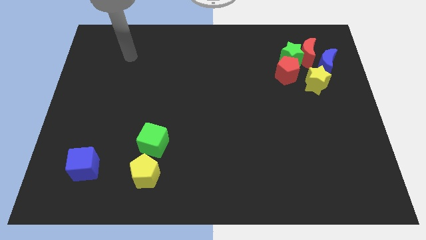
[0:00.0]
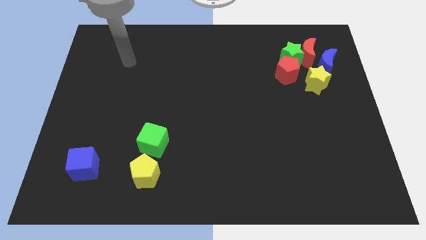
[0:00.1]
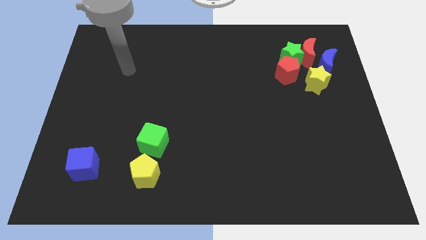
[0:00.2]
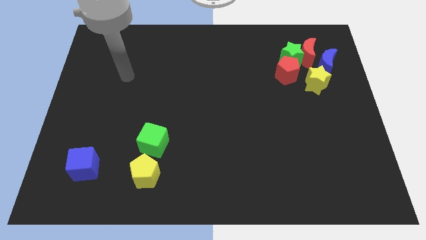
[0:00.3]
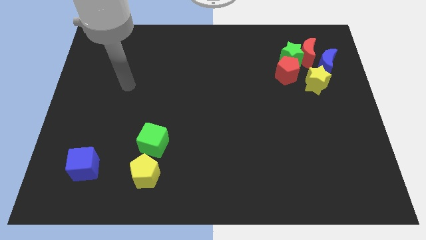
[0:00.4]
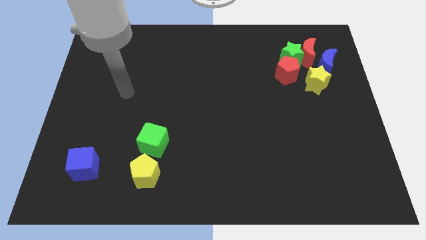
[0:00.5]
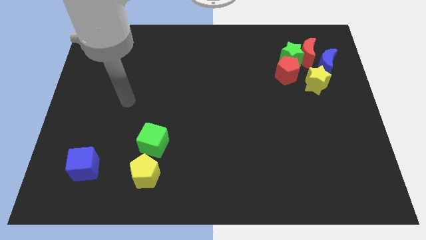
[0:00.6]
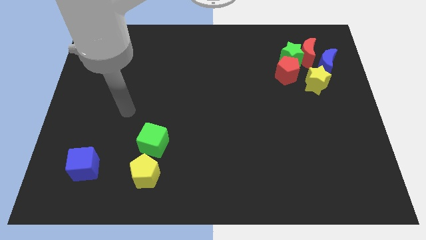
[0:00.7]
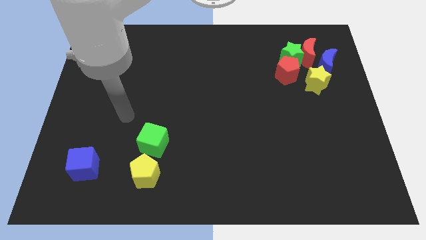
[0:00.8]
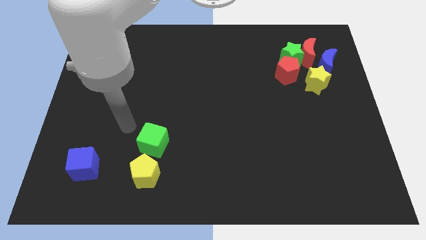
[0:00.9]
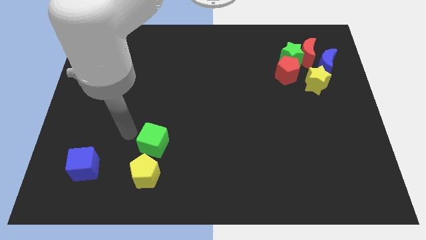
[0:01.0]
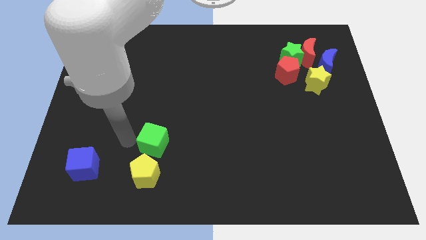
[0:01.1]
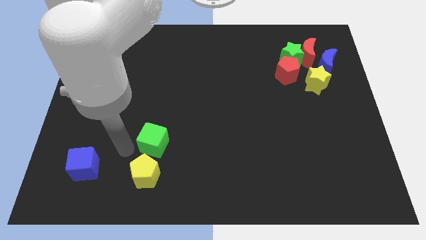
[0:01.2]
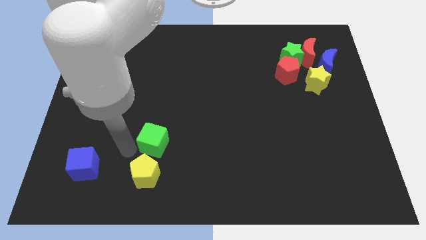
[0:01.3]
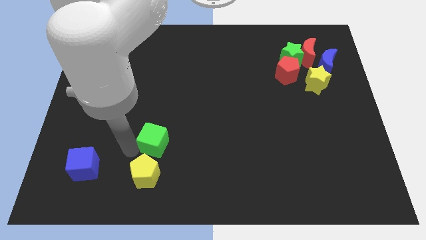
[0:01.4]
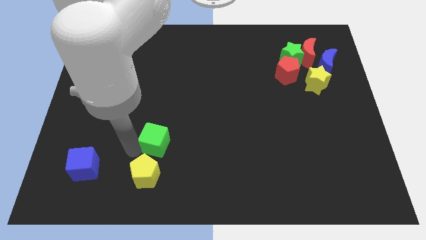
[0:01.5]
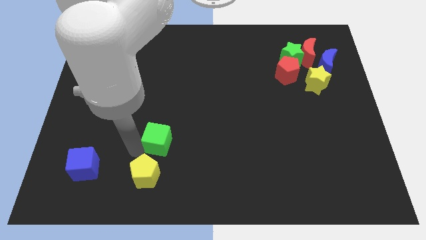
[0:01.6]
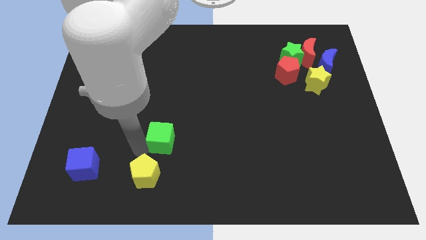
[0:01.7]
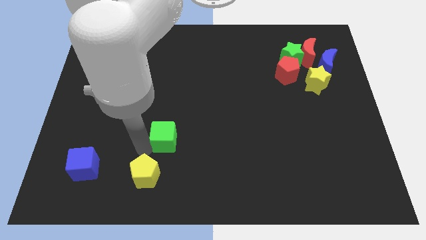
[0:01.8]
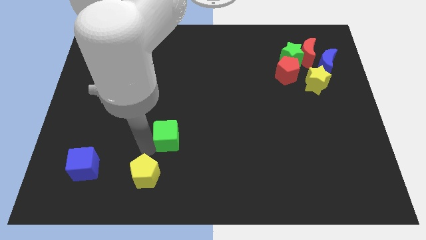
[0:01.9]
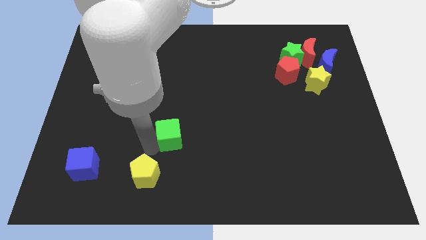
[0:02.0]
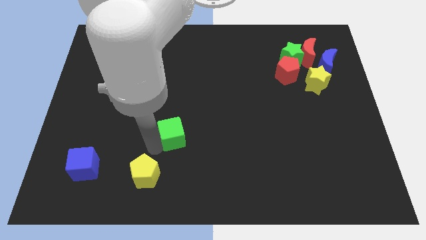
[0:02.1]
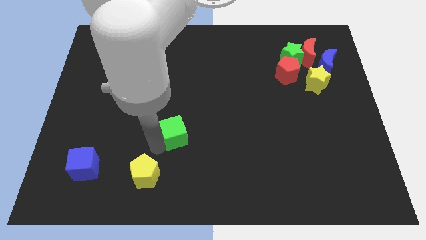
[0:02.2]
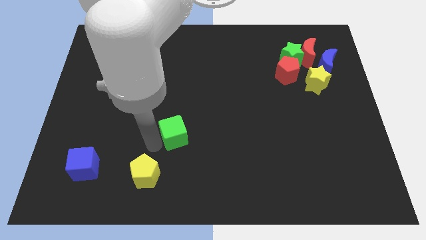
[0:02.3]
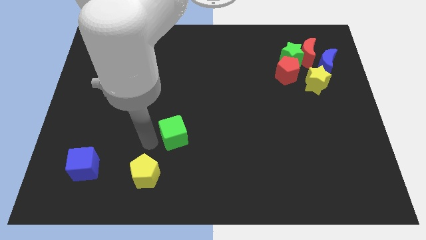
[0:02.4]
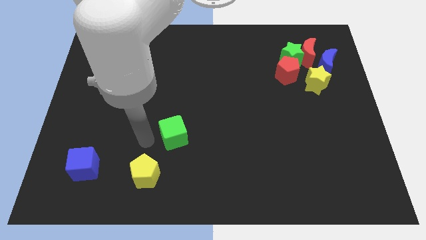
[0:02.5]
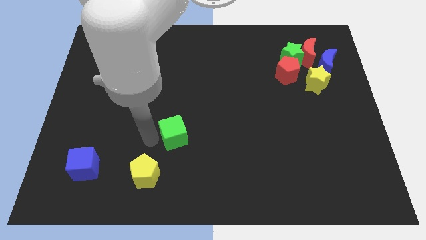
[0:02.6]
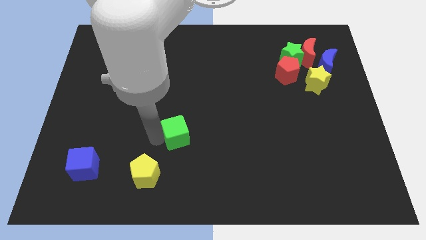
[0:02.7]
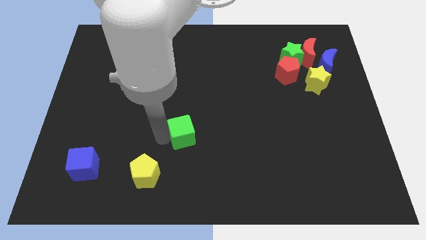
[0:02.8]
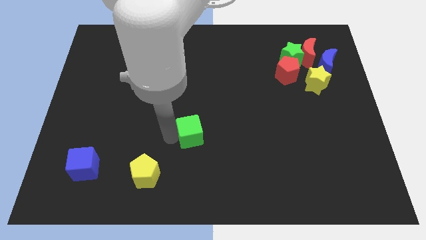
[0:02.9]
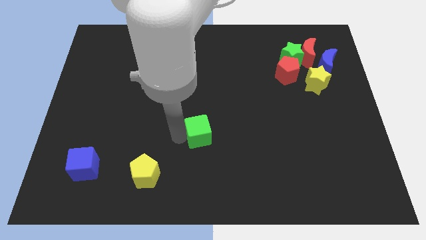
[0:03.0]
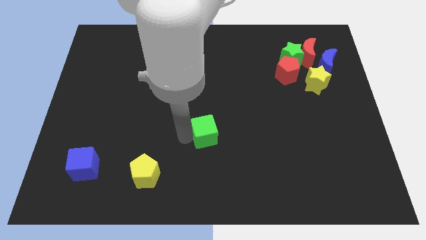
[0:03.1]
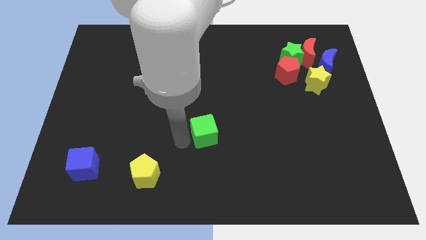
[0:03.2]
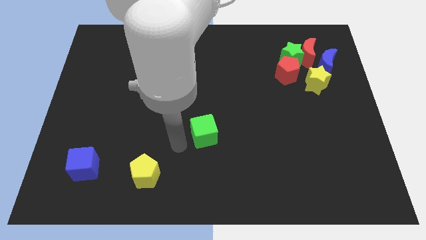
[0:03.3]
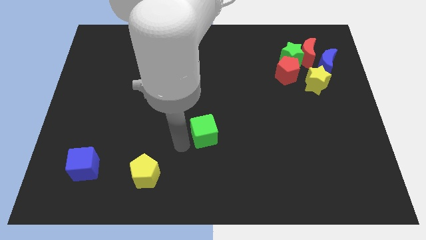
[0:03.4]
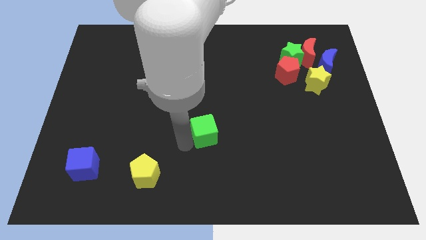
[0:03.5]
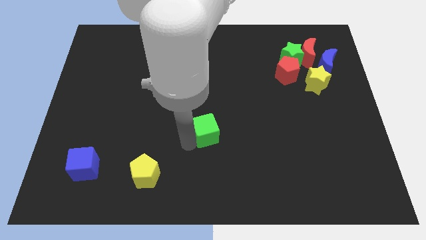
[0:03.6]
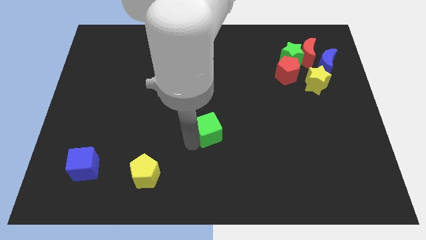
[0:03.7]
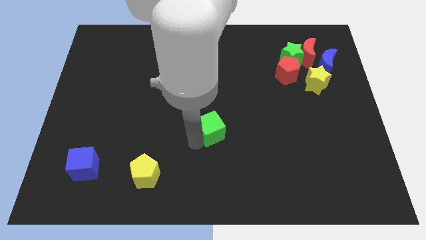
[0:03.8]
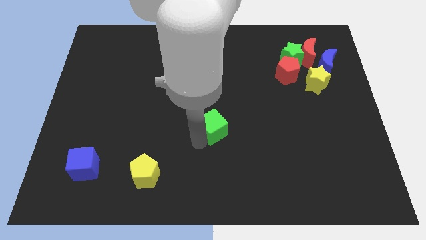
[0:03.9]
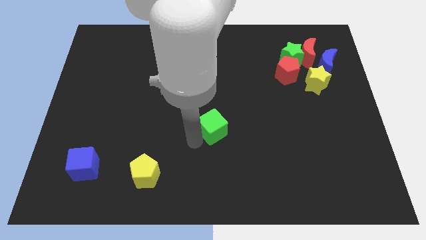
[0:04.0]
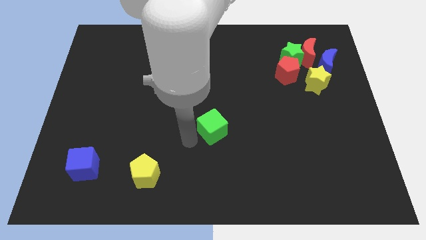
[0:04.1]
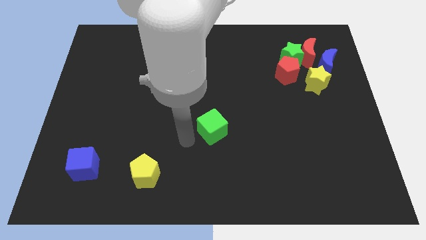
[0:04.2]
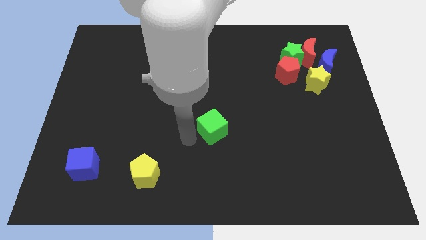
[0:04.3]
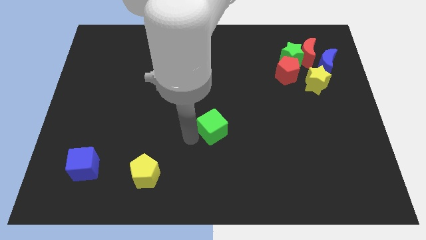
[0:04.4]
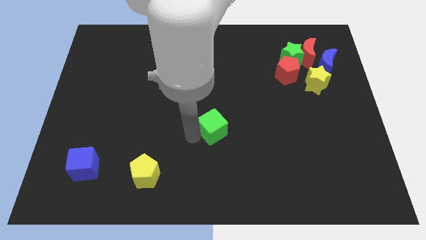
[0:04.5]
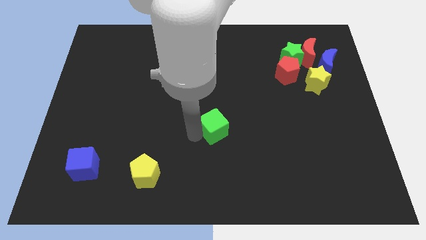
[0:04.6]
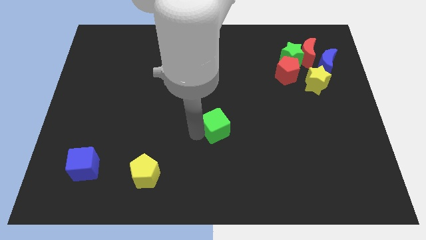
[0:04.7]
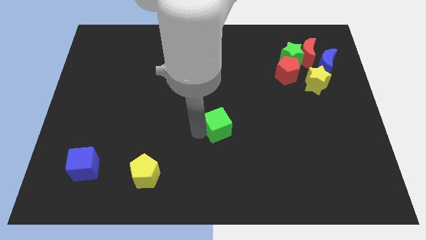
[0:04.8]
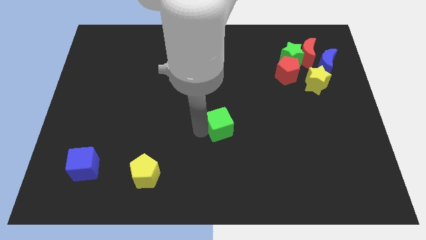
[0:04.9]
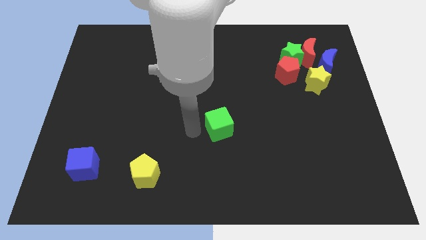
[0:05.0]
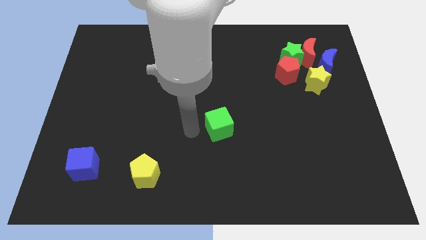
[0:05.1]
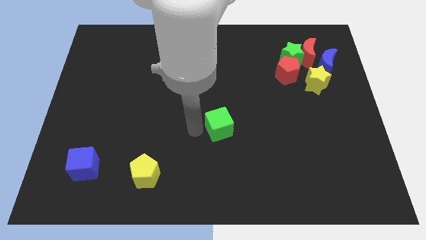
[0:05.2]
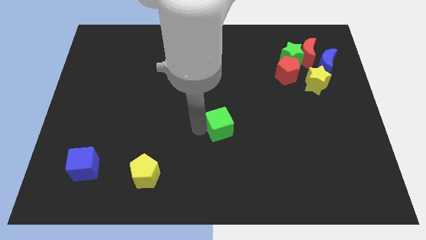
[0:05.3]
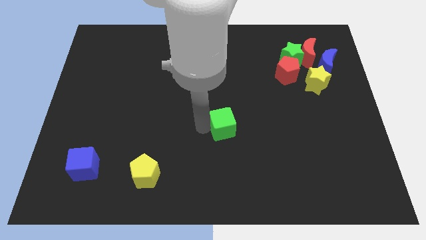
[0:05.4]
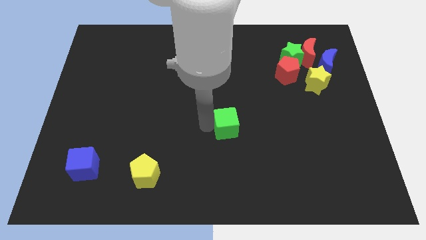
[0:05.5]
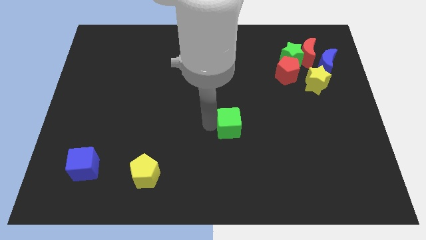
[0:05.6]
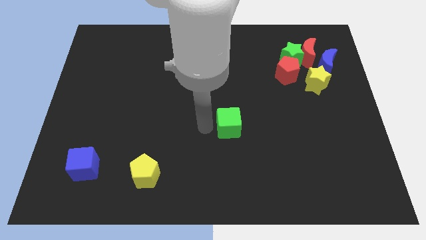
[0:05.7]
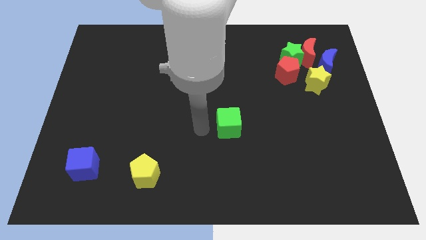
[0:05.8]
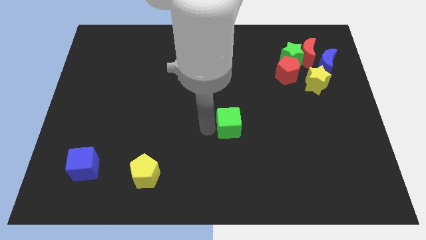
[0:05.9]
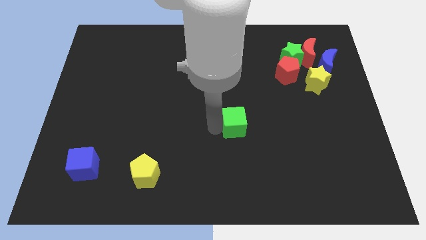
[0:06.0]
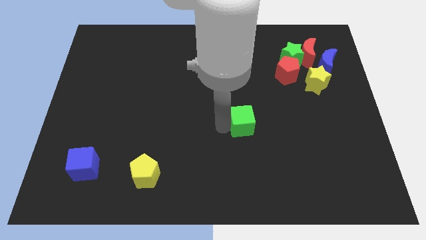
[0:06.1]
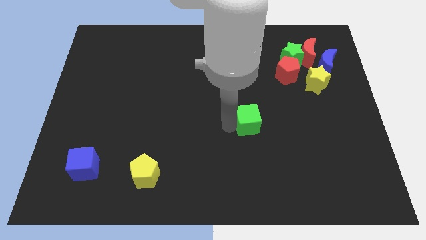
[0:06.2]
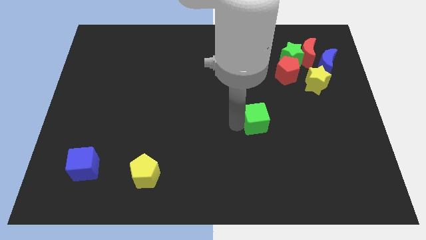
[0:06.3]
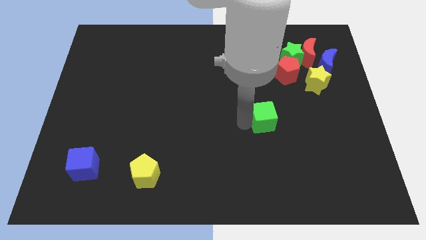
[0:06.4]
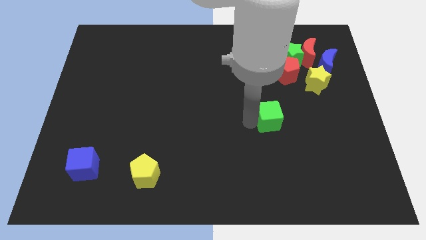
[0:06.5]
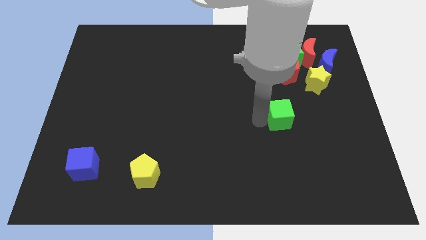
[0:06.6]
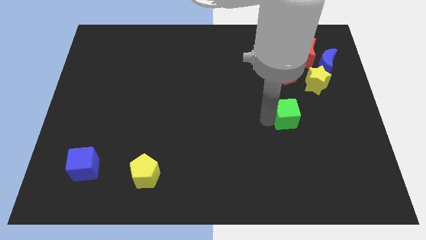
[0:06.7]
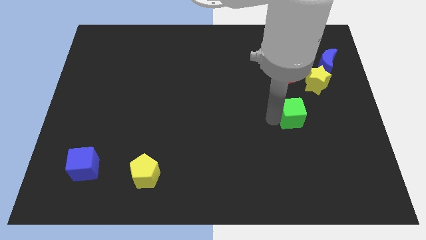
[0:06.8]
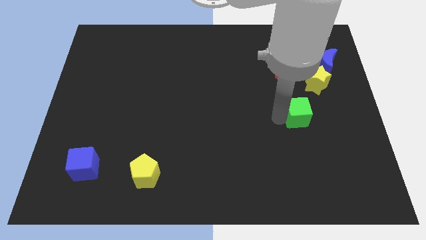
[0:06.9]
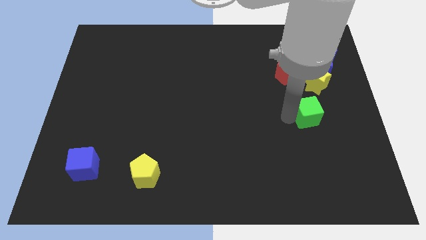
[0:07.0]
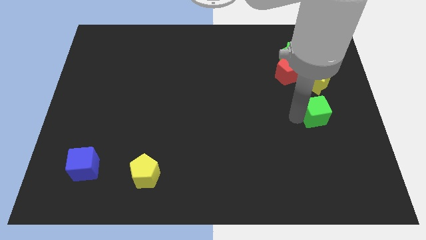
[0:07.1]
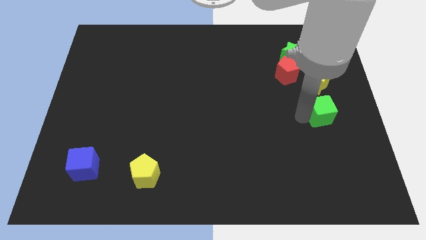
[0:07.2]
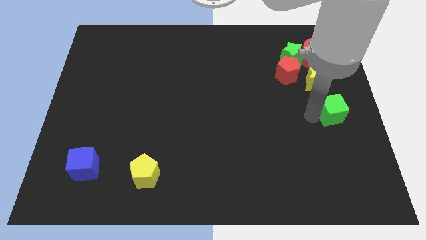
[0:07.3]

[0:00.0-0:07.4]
put the green cube to the right side of the board
